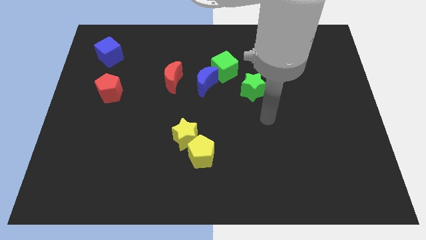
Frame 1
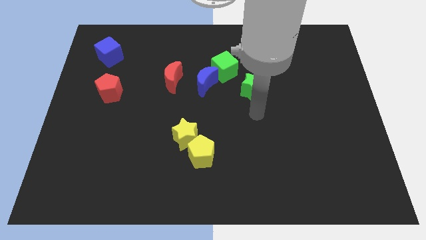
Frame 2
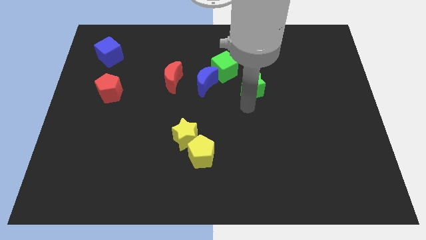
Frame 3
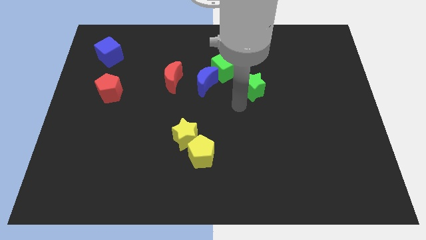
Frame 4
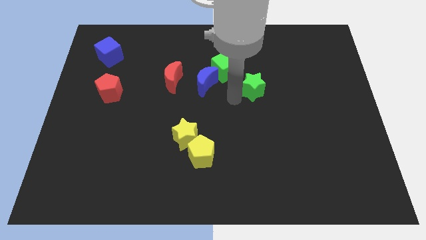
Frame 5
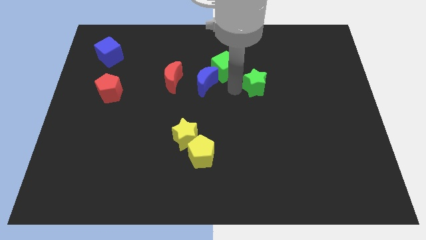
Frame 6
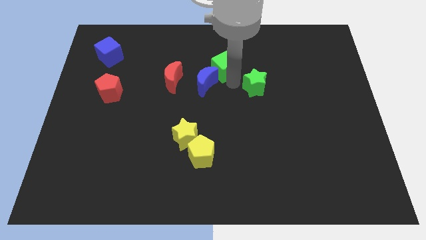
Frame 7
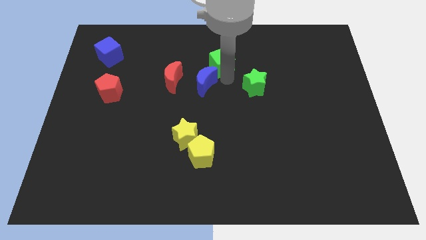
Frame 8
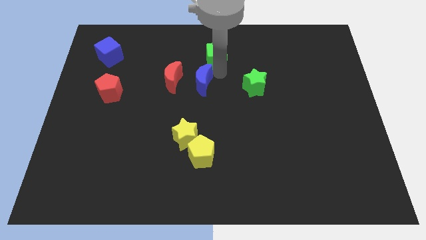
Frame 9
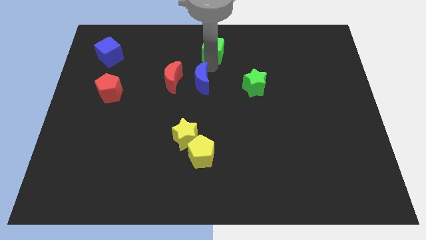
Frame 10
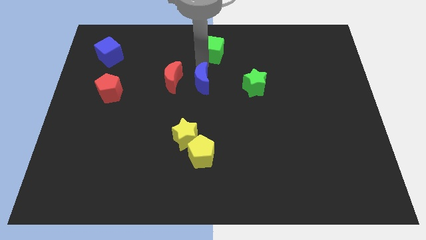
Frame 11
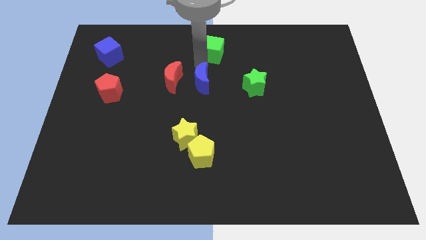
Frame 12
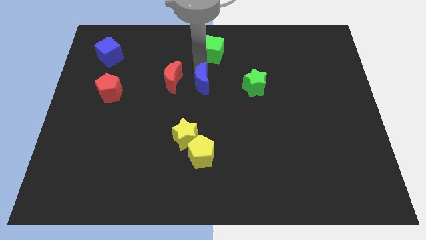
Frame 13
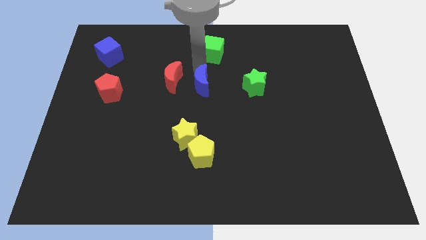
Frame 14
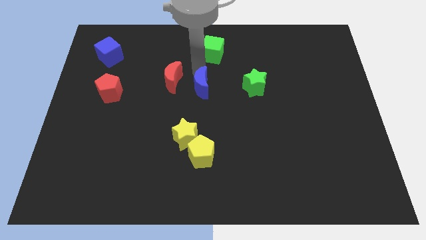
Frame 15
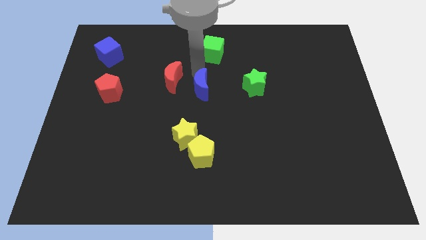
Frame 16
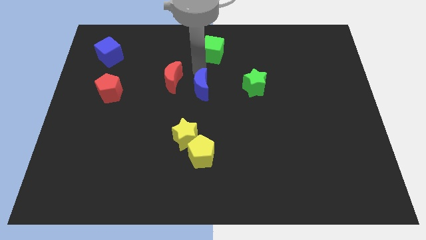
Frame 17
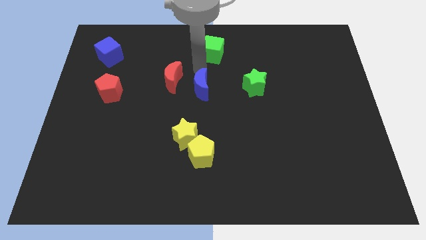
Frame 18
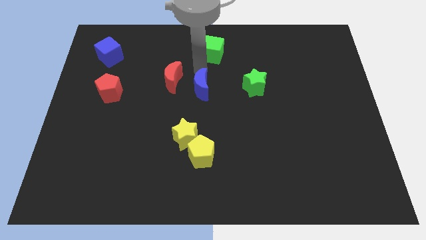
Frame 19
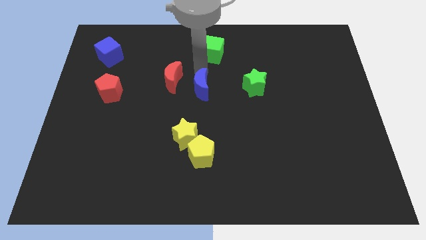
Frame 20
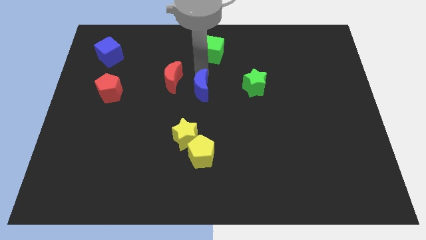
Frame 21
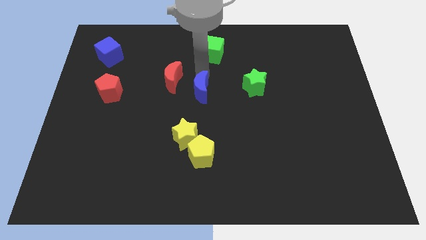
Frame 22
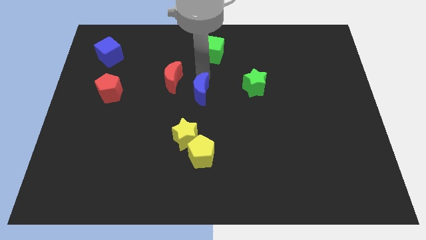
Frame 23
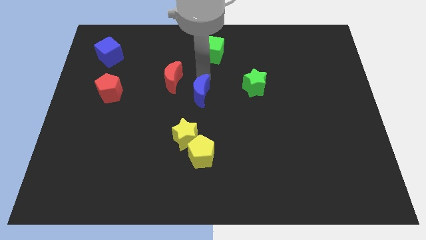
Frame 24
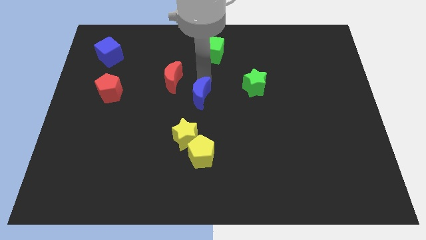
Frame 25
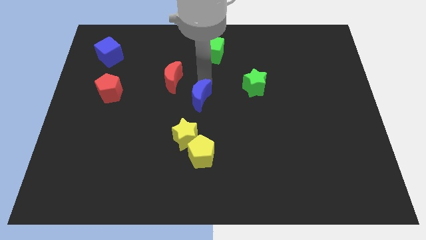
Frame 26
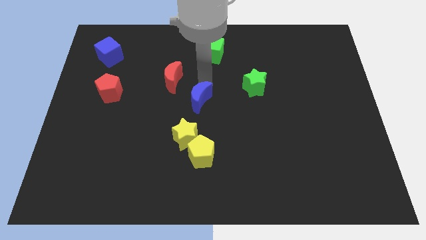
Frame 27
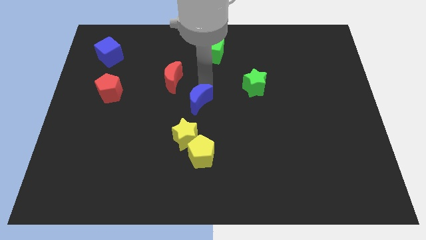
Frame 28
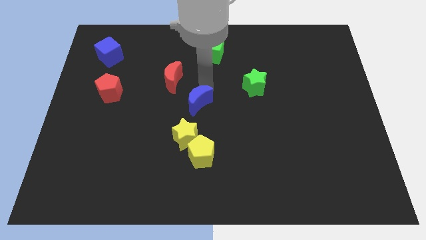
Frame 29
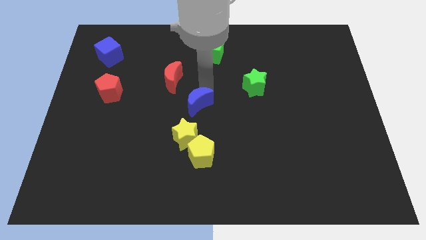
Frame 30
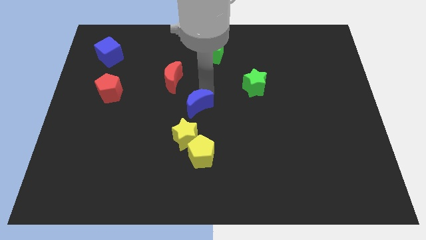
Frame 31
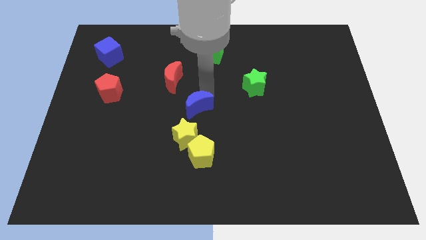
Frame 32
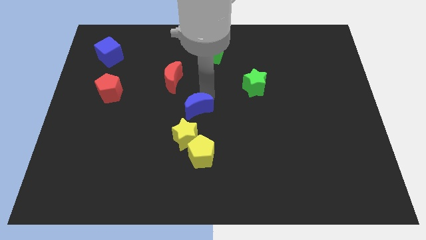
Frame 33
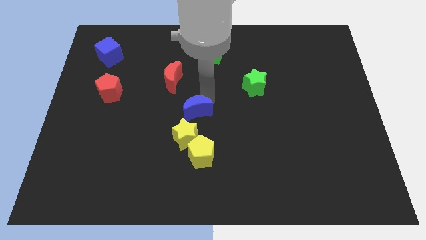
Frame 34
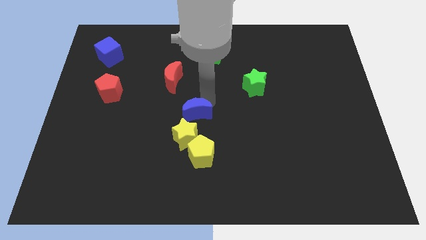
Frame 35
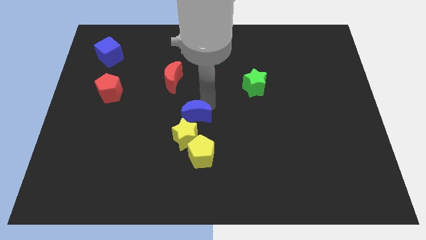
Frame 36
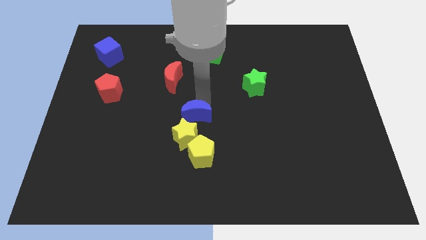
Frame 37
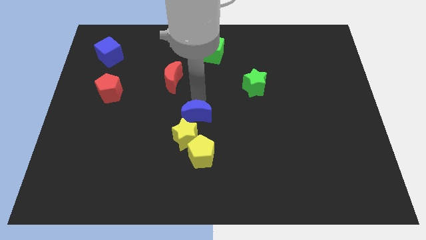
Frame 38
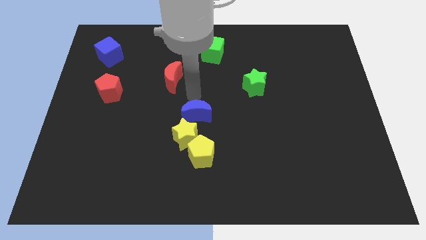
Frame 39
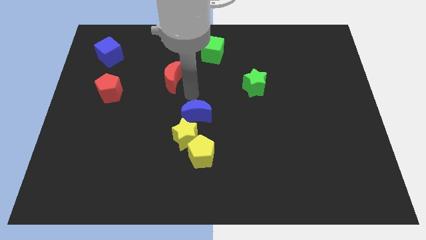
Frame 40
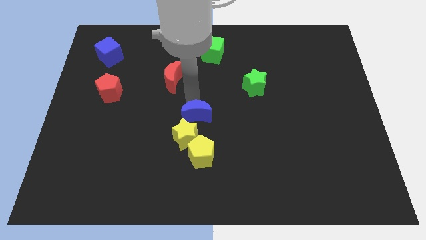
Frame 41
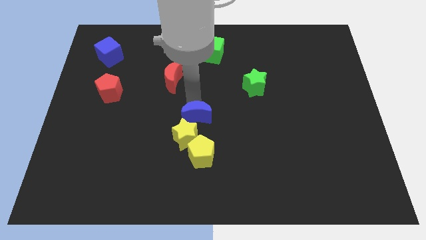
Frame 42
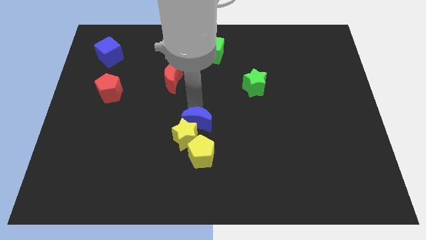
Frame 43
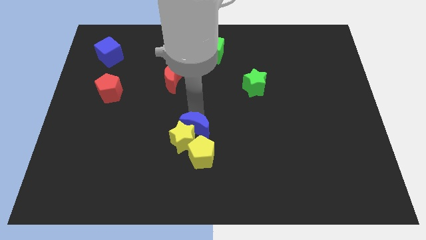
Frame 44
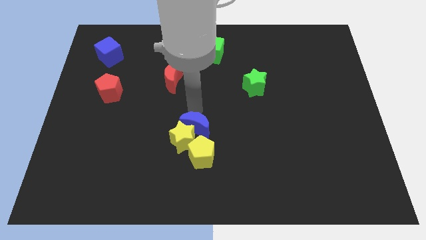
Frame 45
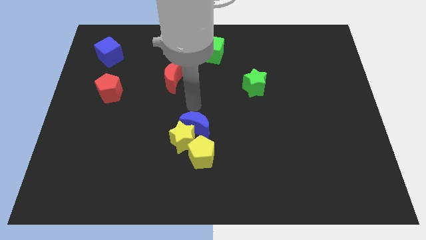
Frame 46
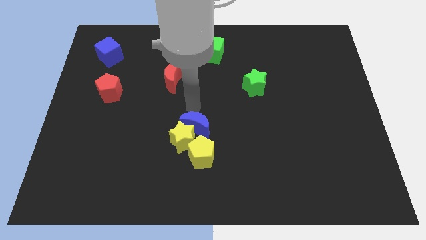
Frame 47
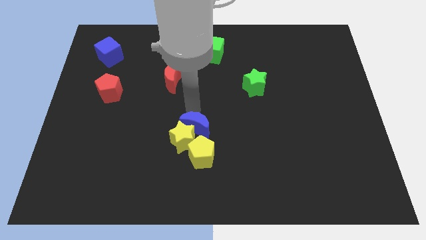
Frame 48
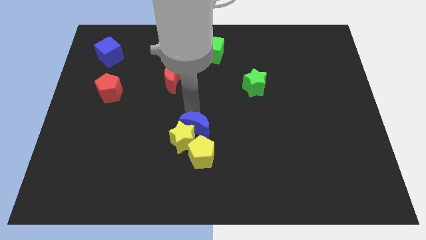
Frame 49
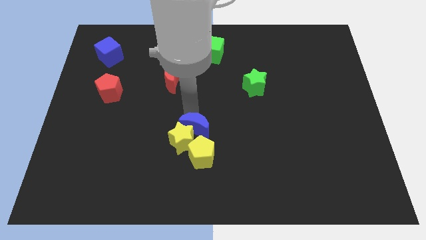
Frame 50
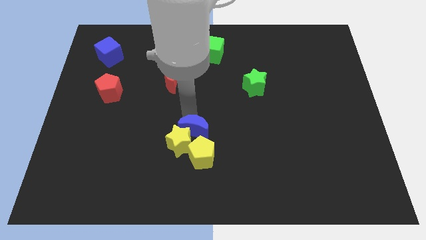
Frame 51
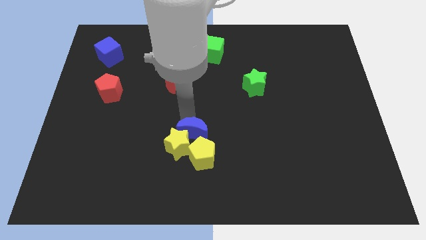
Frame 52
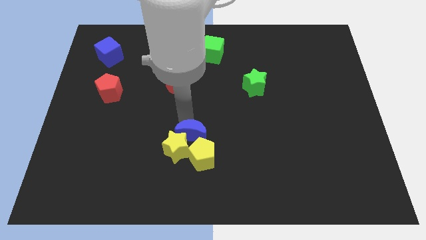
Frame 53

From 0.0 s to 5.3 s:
put the blue moon to the yellow pentagon

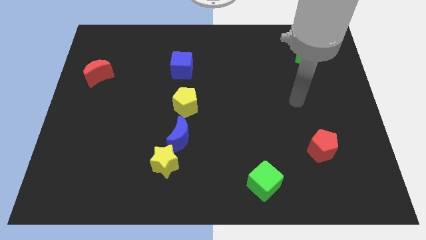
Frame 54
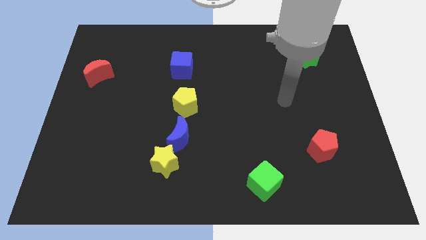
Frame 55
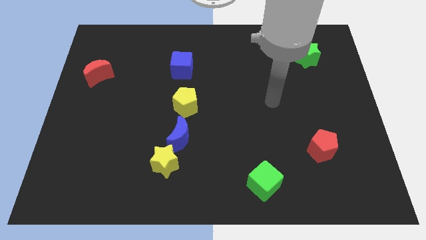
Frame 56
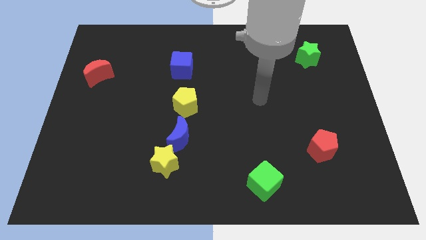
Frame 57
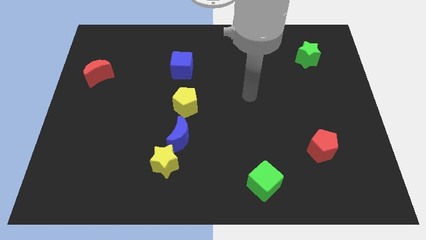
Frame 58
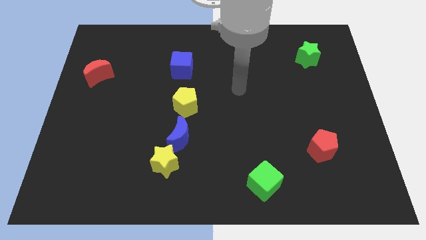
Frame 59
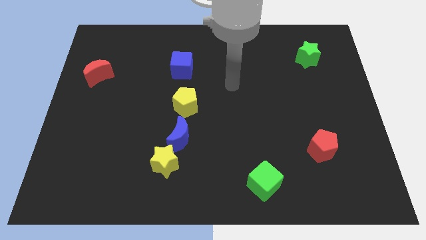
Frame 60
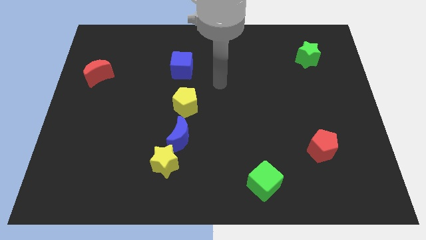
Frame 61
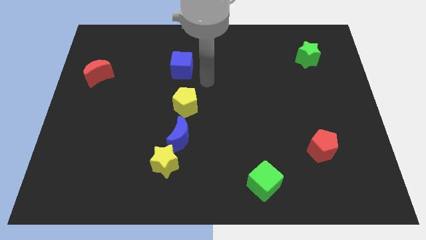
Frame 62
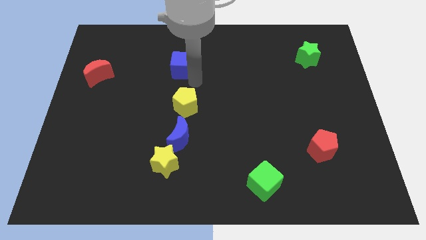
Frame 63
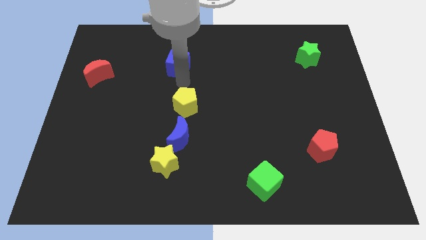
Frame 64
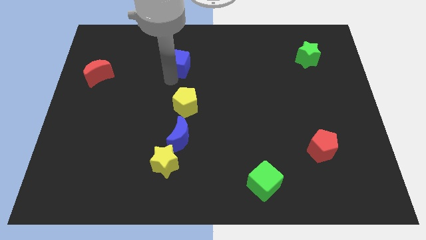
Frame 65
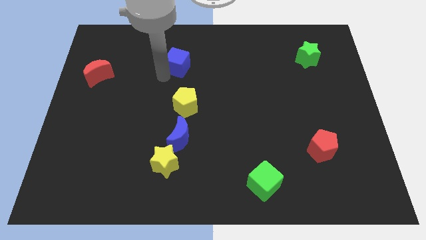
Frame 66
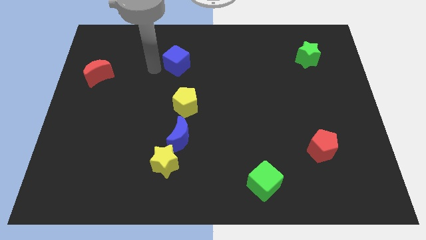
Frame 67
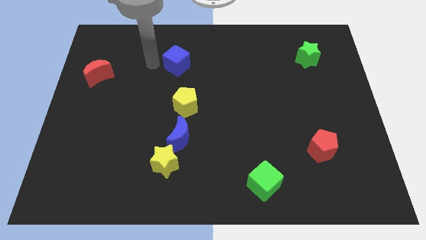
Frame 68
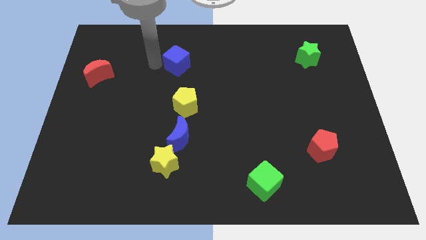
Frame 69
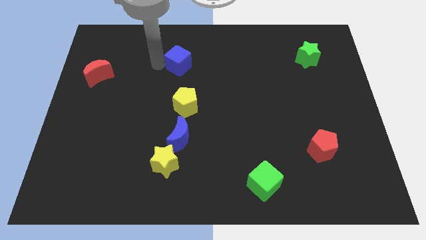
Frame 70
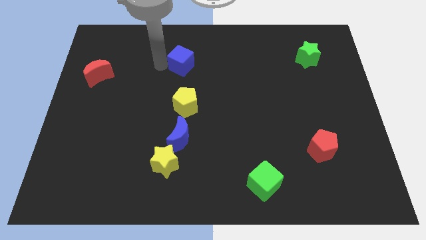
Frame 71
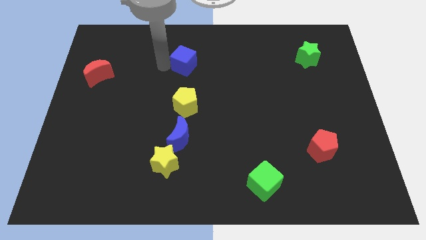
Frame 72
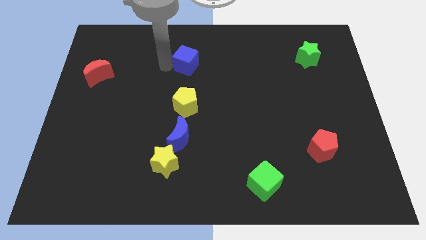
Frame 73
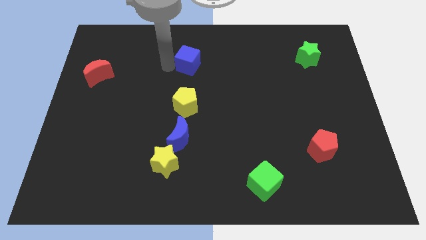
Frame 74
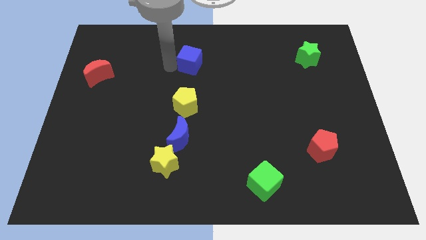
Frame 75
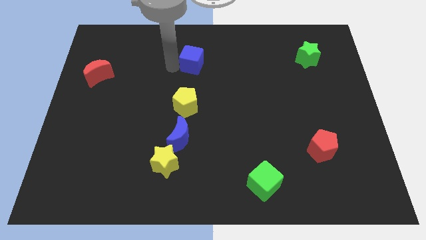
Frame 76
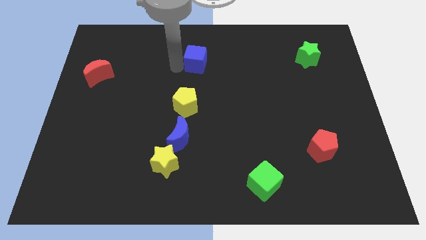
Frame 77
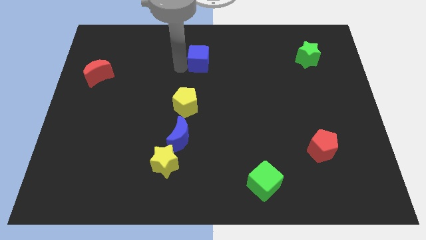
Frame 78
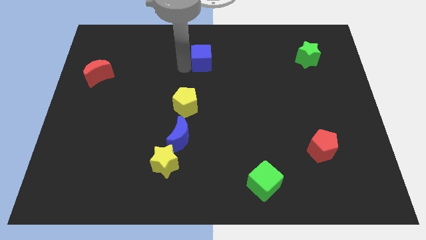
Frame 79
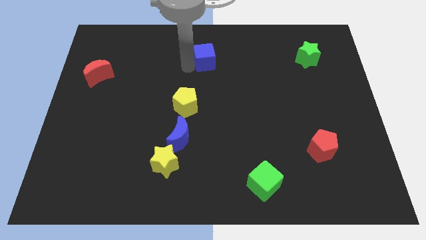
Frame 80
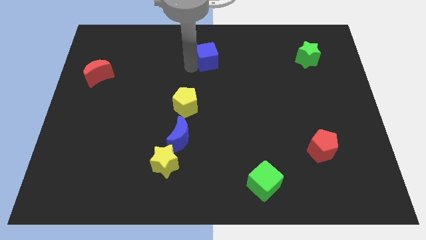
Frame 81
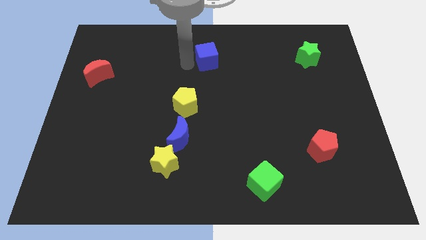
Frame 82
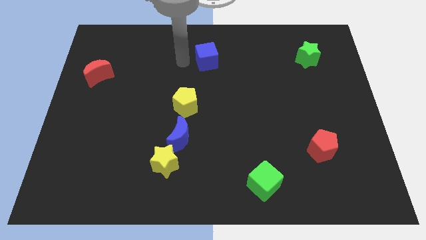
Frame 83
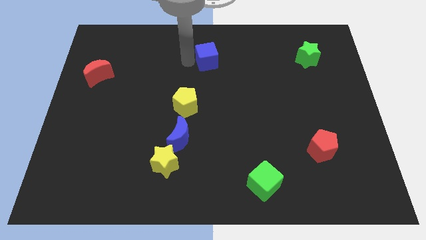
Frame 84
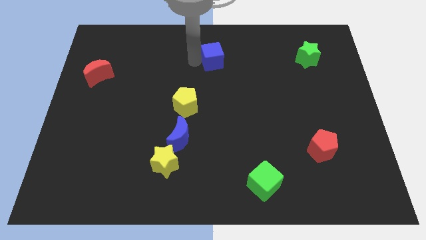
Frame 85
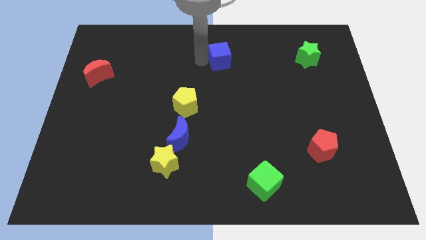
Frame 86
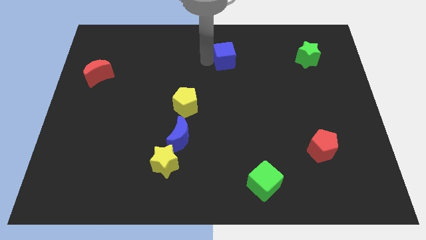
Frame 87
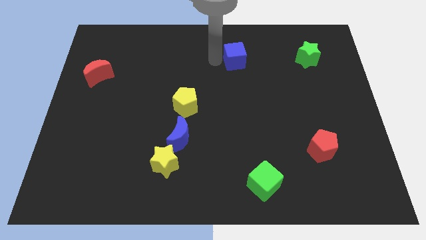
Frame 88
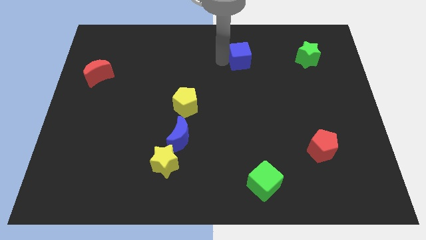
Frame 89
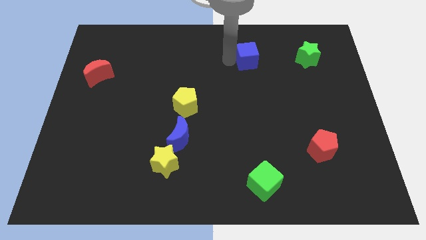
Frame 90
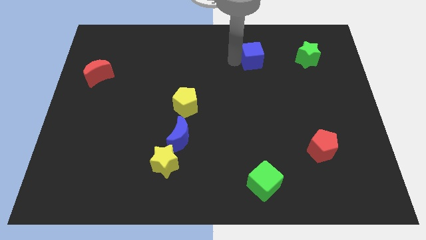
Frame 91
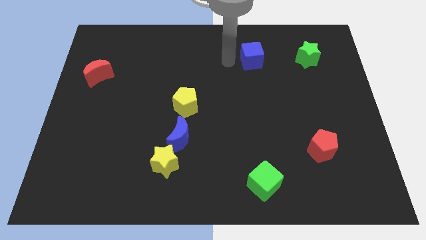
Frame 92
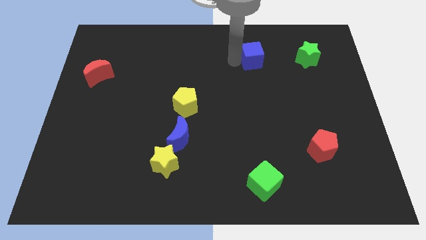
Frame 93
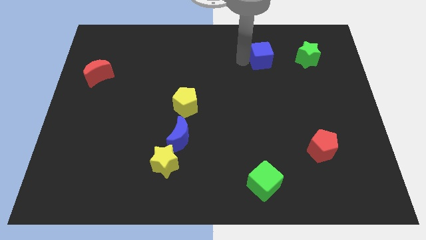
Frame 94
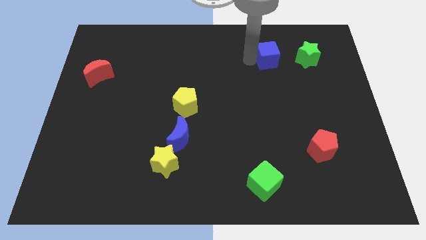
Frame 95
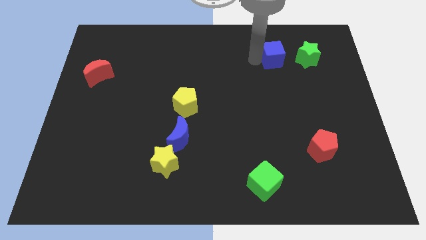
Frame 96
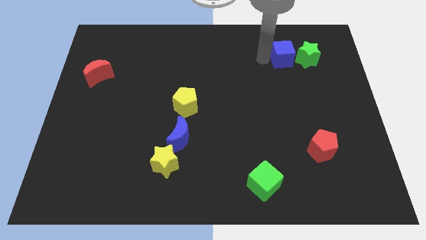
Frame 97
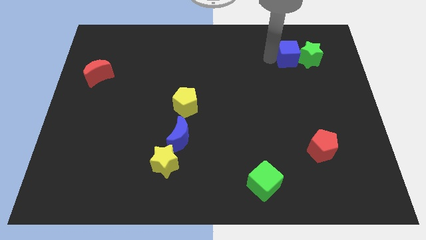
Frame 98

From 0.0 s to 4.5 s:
push the blue cube close to the green star
